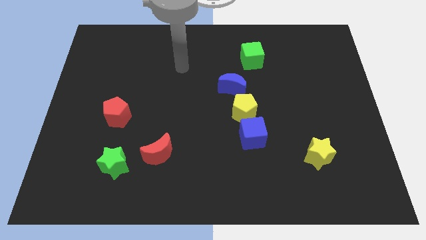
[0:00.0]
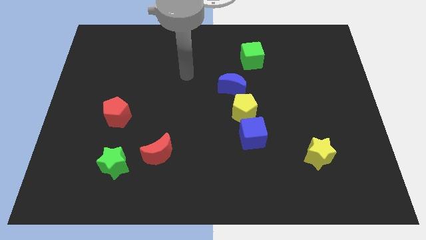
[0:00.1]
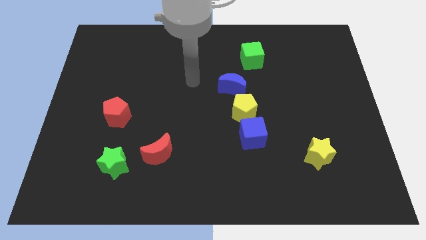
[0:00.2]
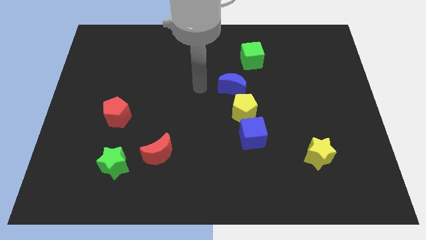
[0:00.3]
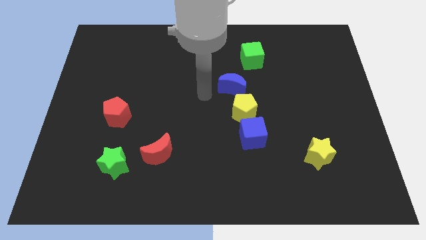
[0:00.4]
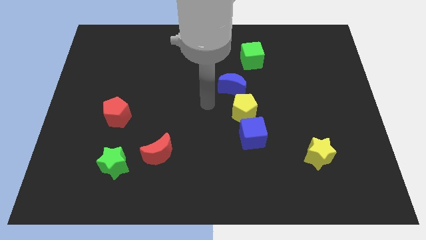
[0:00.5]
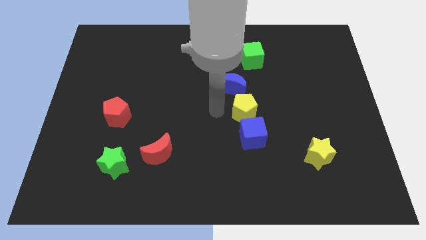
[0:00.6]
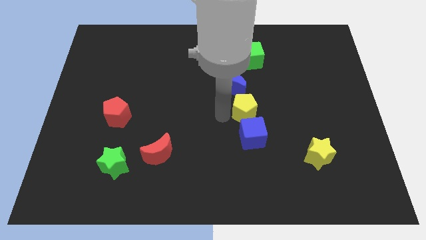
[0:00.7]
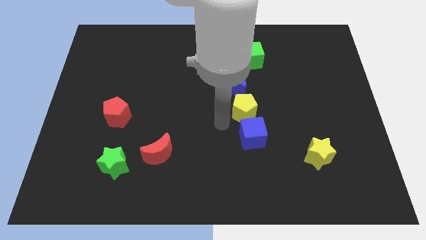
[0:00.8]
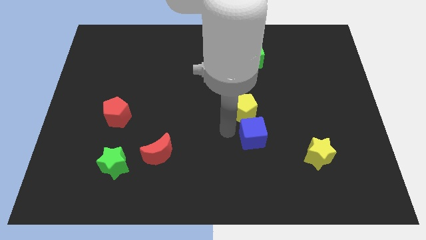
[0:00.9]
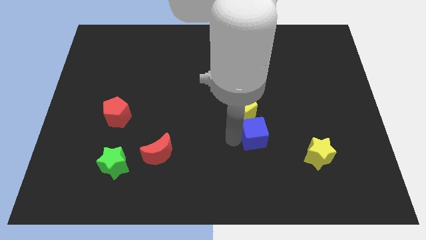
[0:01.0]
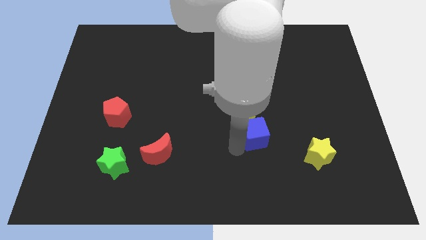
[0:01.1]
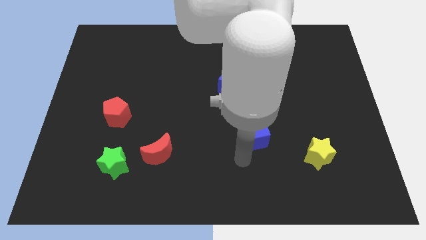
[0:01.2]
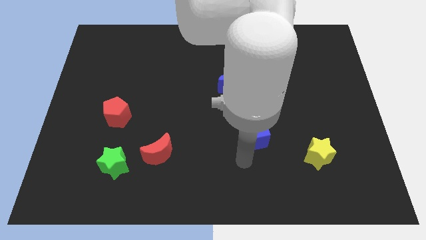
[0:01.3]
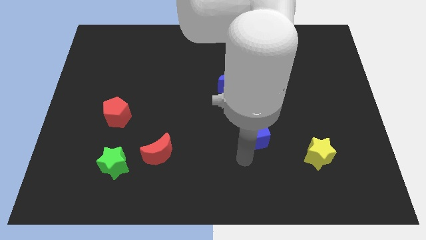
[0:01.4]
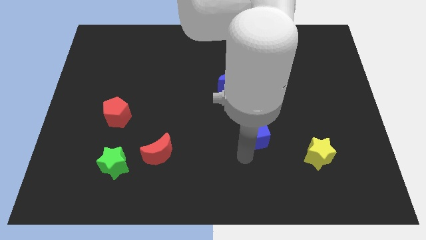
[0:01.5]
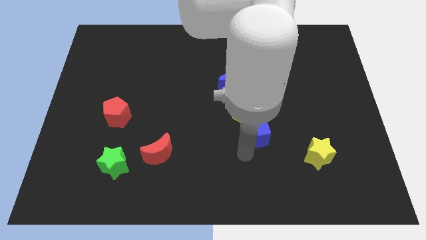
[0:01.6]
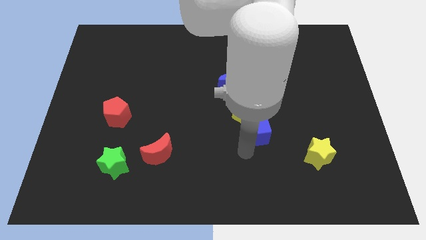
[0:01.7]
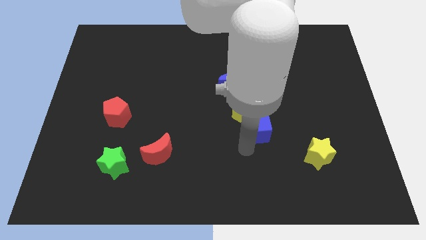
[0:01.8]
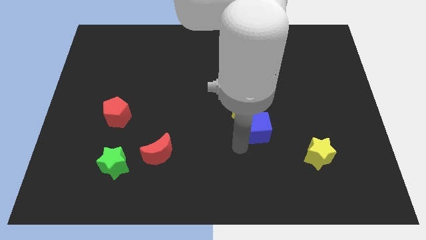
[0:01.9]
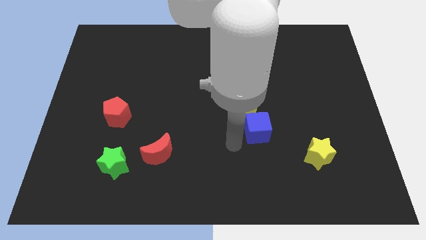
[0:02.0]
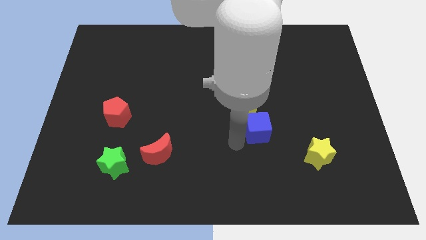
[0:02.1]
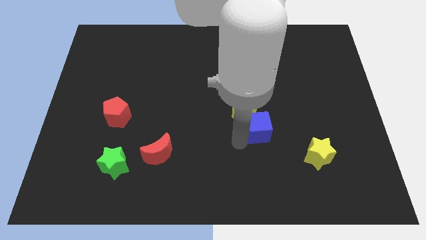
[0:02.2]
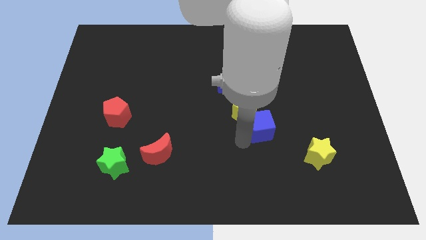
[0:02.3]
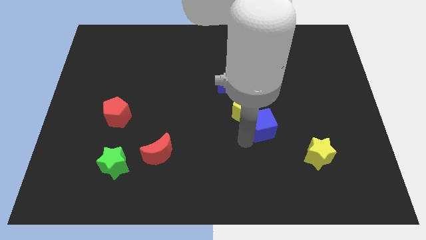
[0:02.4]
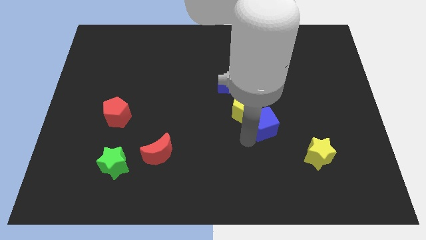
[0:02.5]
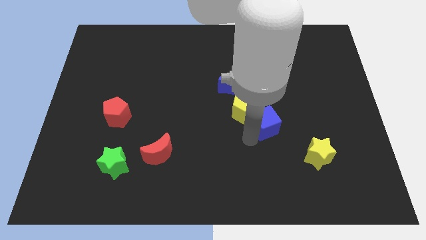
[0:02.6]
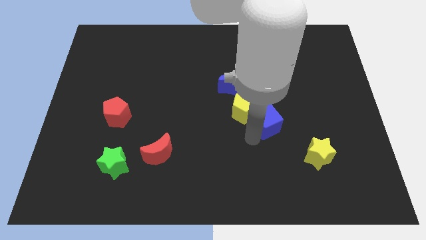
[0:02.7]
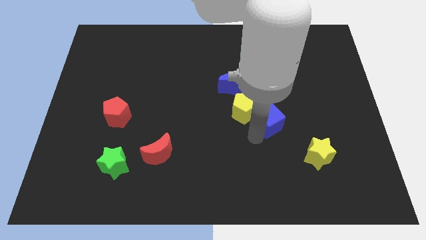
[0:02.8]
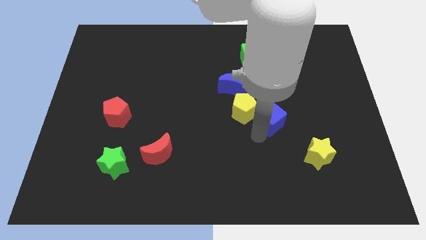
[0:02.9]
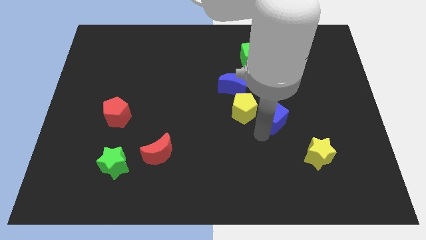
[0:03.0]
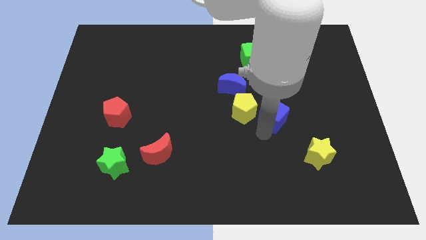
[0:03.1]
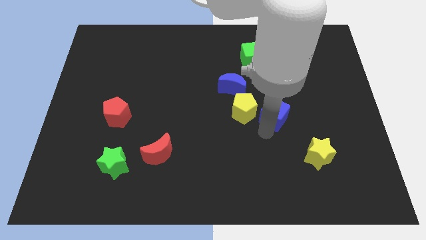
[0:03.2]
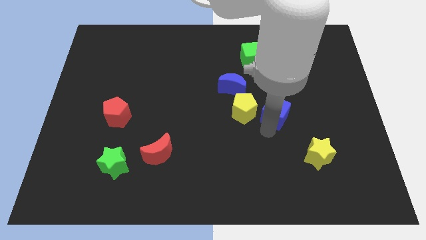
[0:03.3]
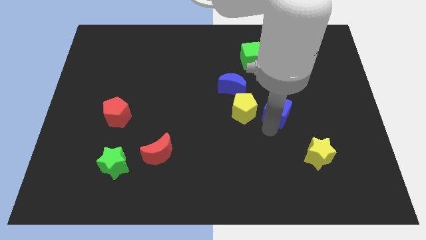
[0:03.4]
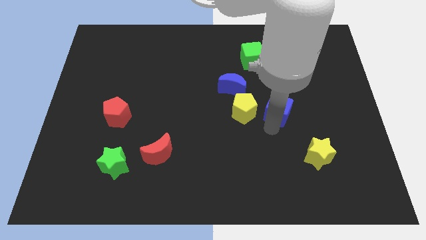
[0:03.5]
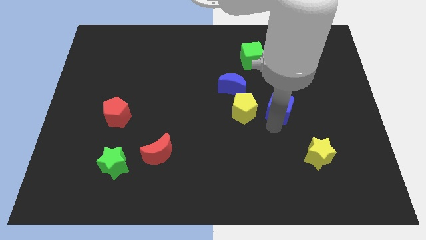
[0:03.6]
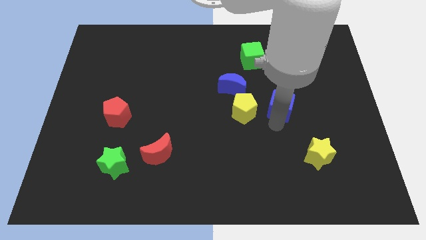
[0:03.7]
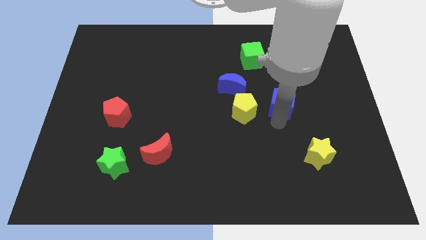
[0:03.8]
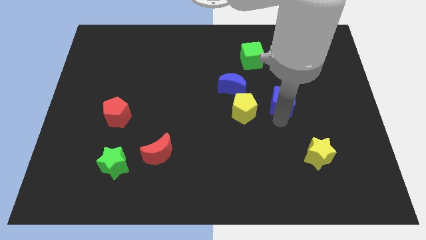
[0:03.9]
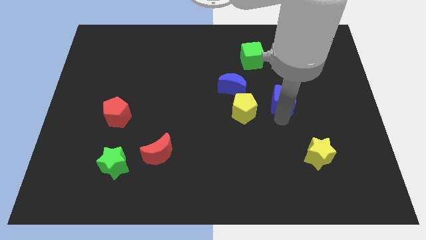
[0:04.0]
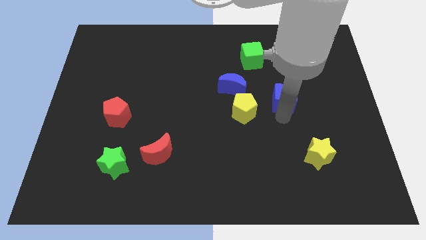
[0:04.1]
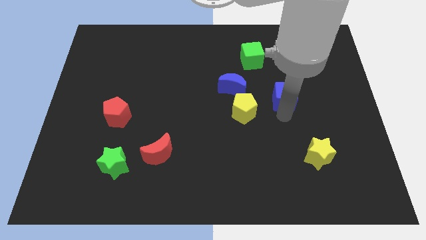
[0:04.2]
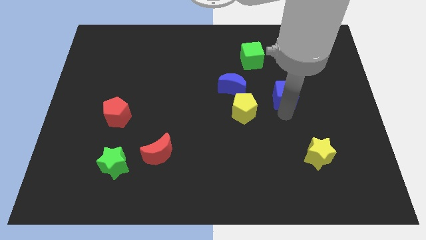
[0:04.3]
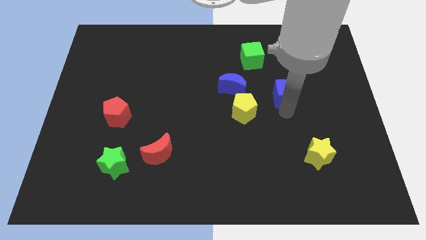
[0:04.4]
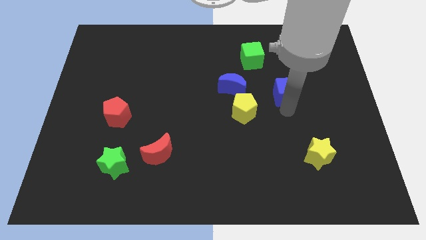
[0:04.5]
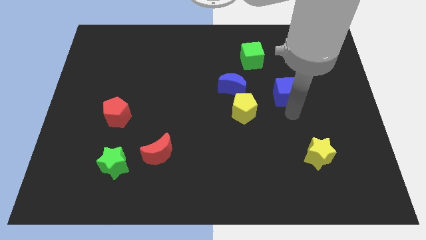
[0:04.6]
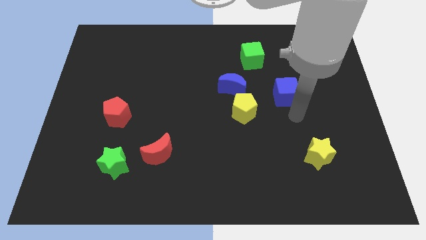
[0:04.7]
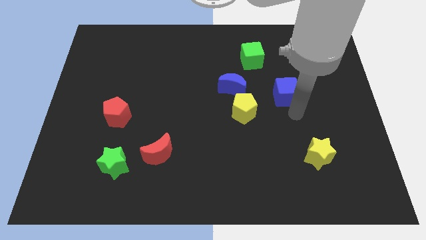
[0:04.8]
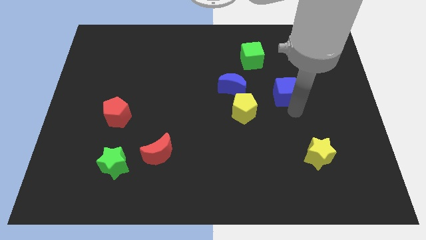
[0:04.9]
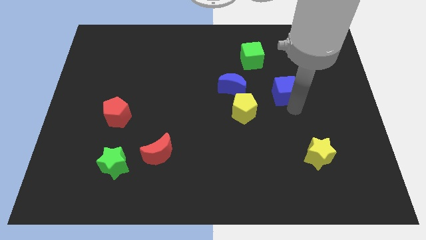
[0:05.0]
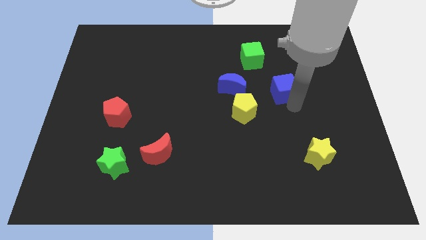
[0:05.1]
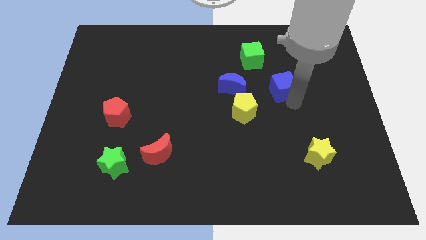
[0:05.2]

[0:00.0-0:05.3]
push the blue cube to the bottom right side of the green cube

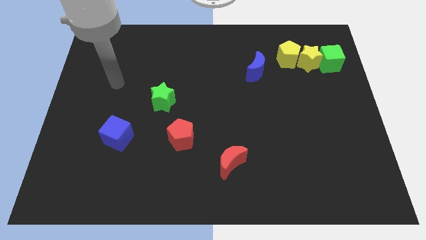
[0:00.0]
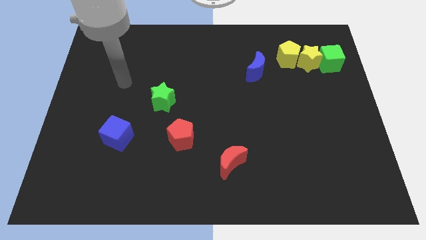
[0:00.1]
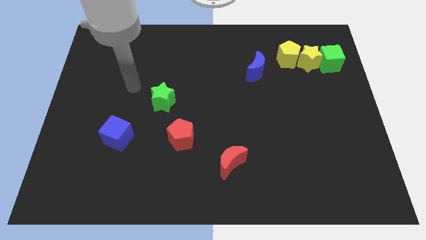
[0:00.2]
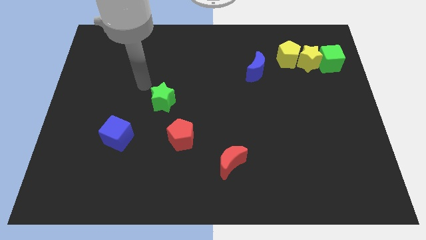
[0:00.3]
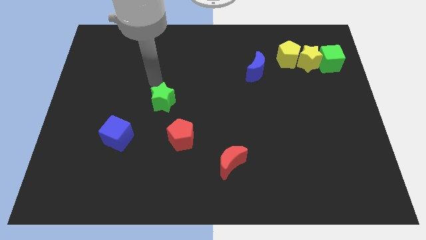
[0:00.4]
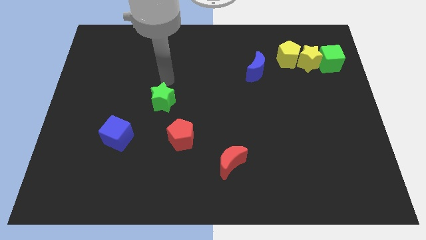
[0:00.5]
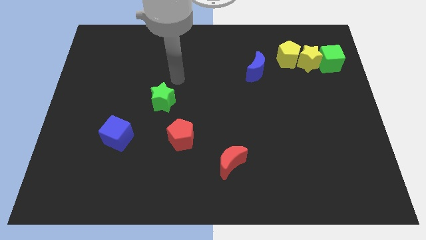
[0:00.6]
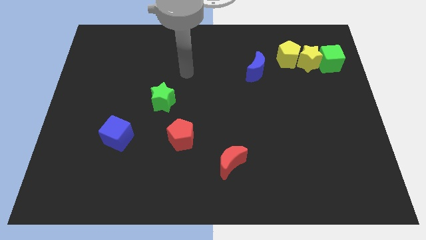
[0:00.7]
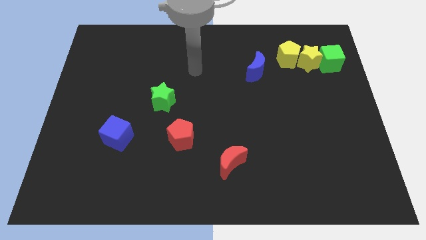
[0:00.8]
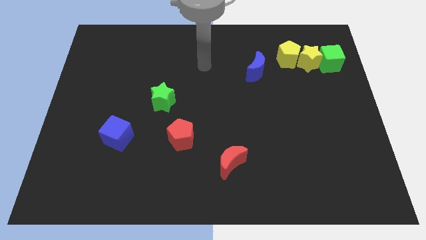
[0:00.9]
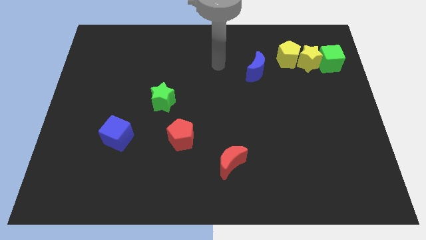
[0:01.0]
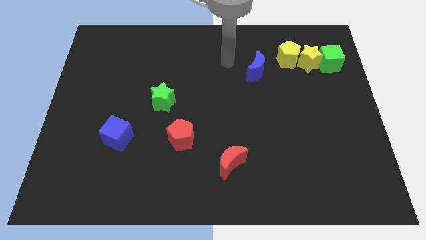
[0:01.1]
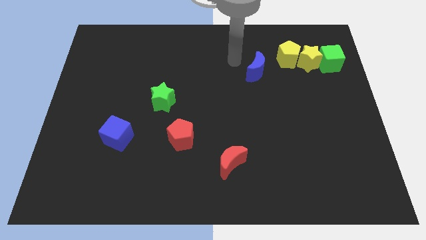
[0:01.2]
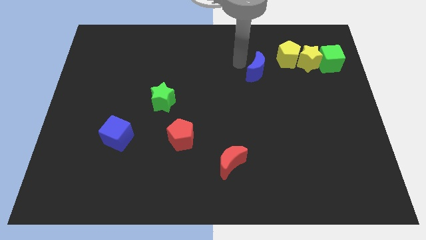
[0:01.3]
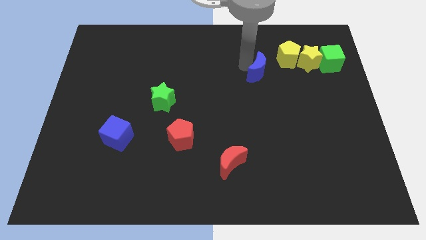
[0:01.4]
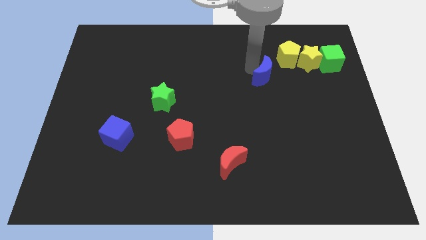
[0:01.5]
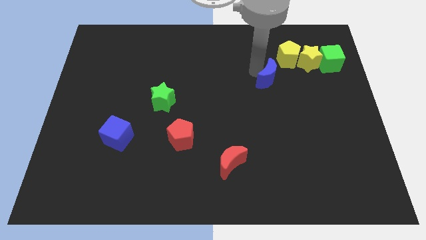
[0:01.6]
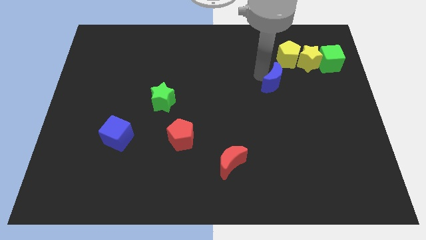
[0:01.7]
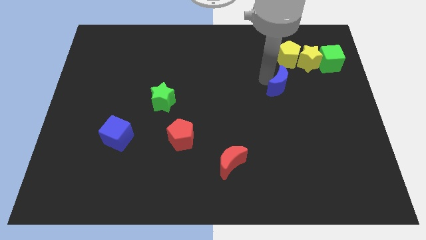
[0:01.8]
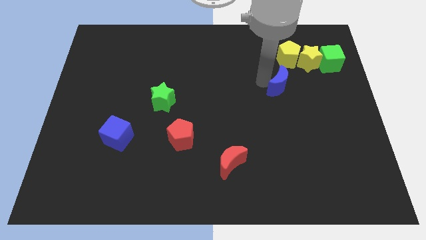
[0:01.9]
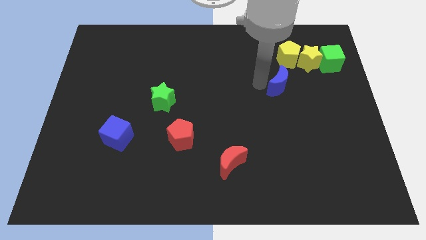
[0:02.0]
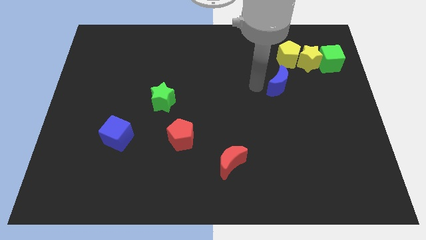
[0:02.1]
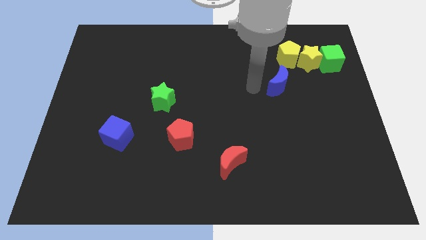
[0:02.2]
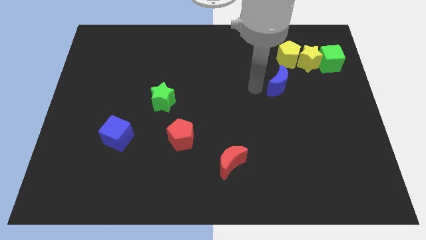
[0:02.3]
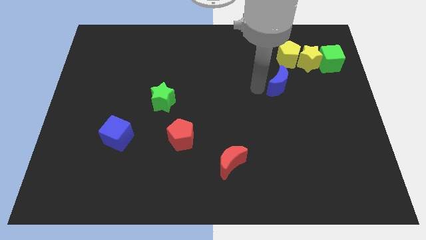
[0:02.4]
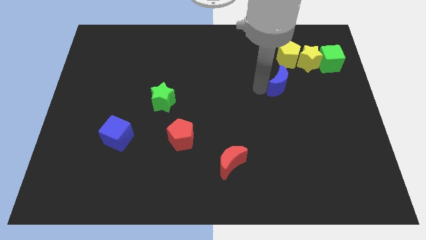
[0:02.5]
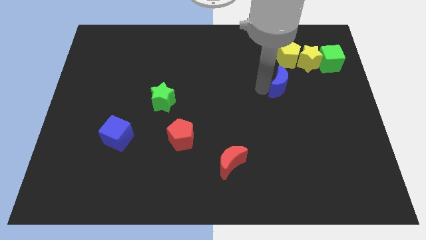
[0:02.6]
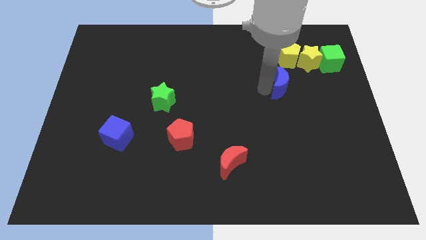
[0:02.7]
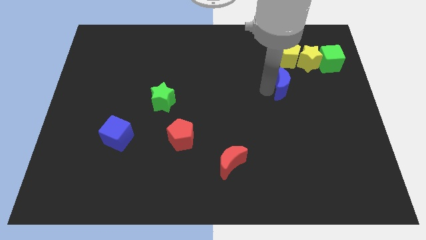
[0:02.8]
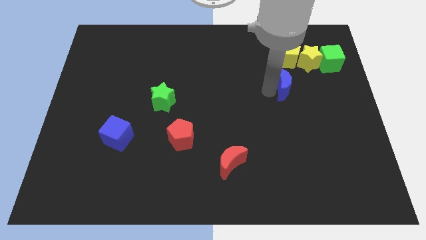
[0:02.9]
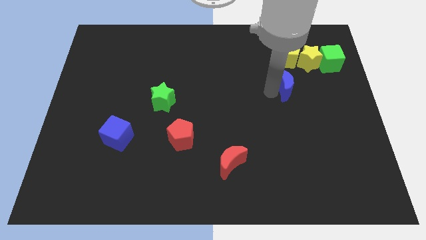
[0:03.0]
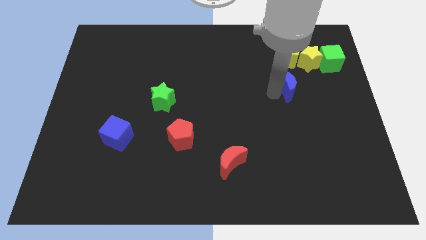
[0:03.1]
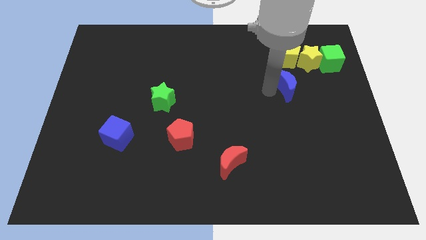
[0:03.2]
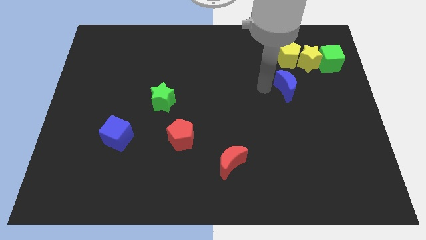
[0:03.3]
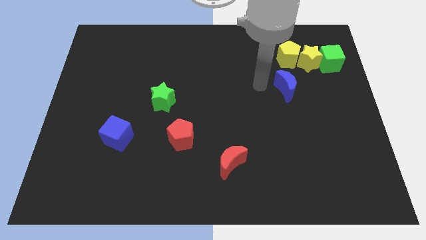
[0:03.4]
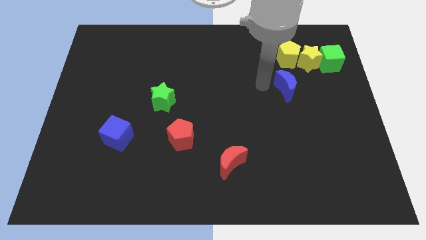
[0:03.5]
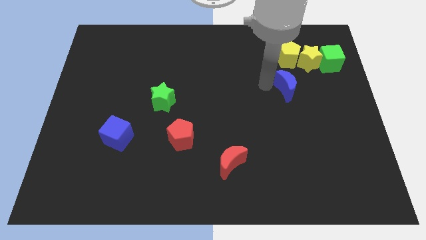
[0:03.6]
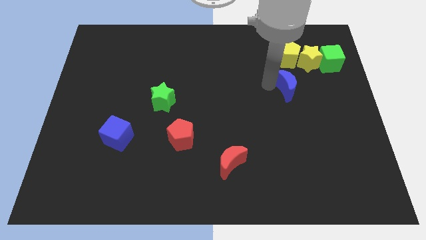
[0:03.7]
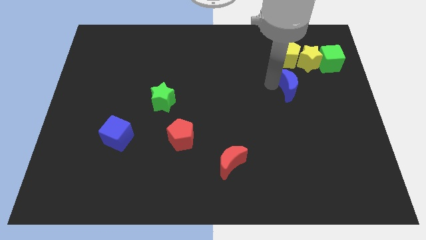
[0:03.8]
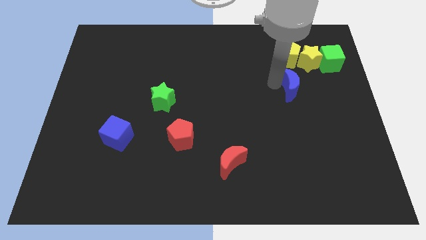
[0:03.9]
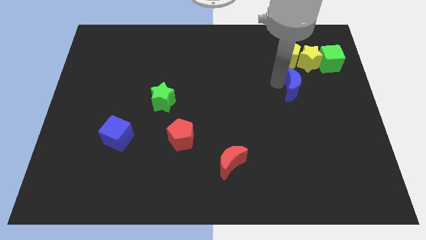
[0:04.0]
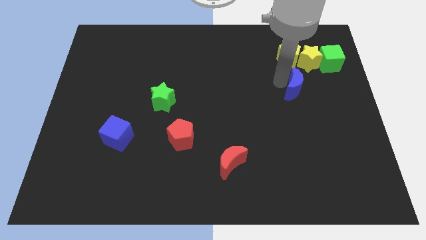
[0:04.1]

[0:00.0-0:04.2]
push the blue moon to the bottom of the yellow star
